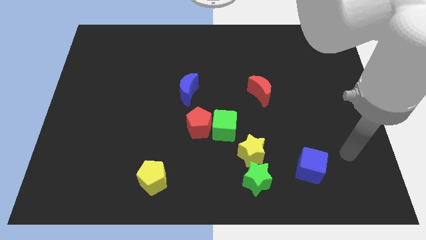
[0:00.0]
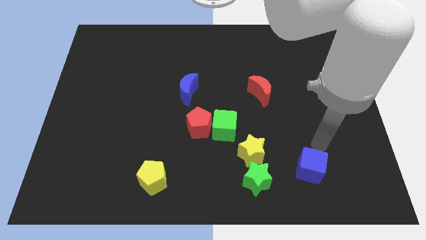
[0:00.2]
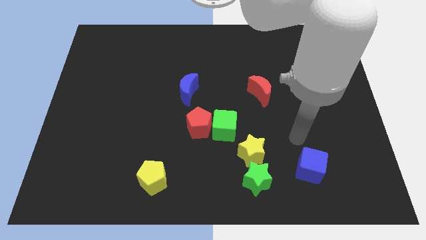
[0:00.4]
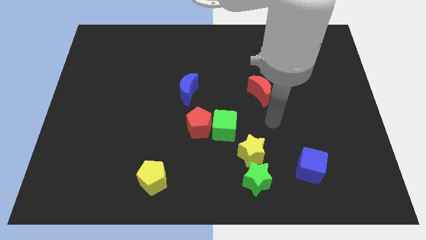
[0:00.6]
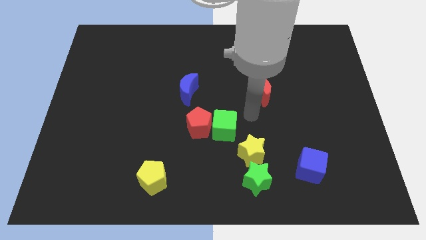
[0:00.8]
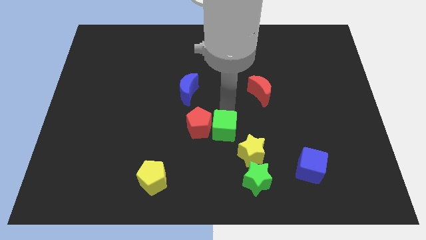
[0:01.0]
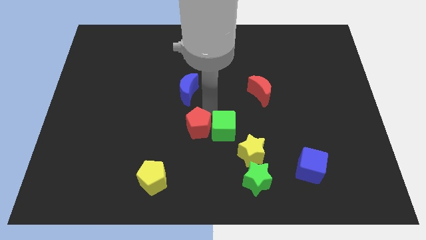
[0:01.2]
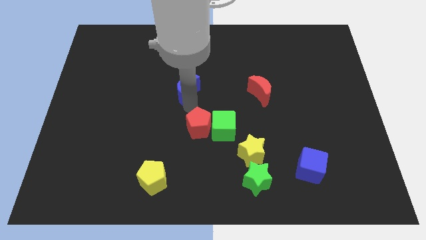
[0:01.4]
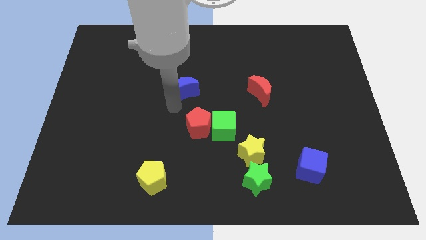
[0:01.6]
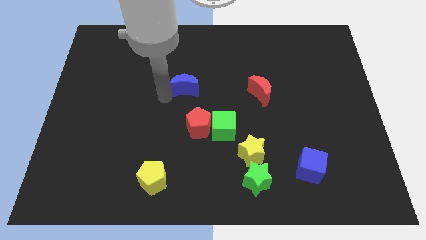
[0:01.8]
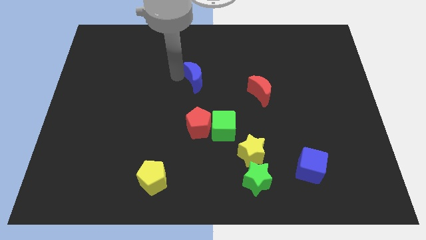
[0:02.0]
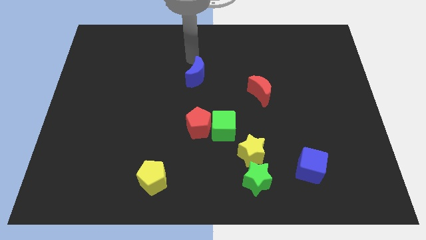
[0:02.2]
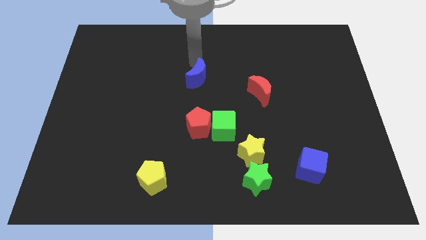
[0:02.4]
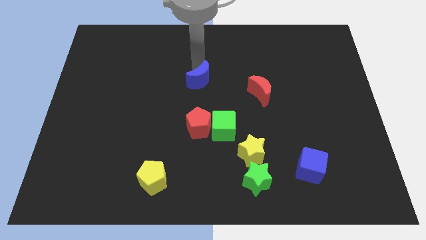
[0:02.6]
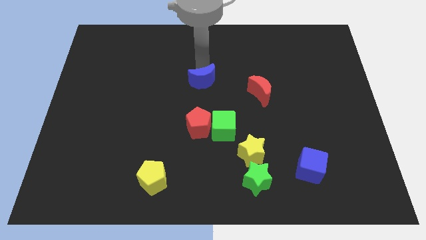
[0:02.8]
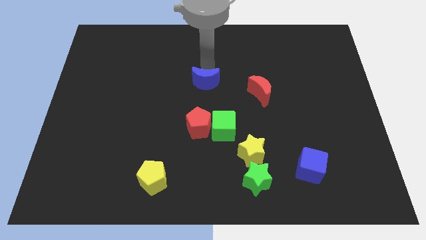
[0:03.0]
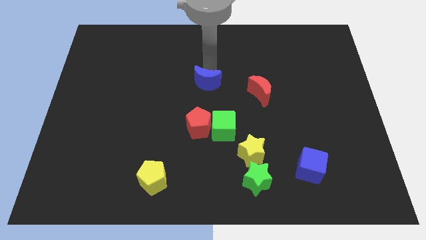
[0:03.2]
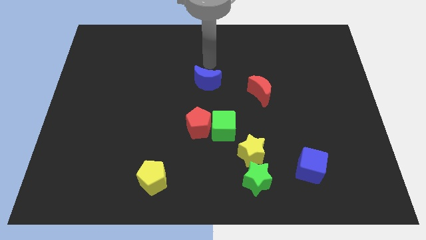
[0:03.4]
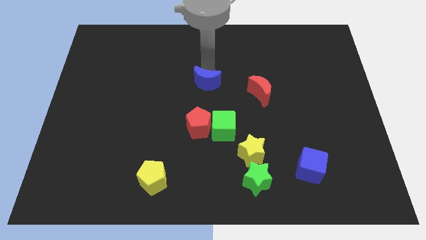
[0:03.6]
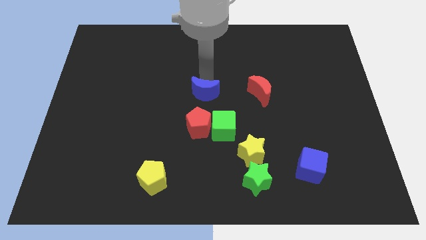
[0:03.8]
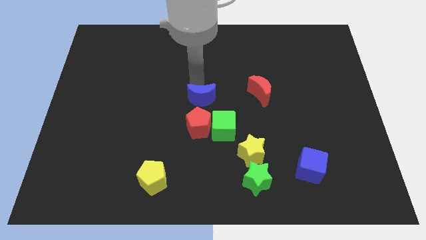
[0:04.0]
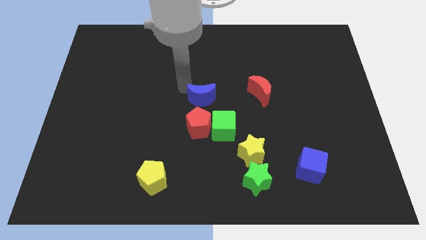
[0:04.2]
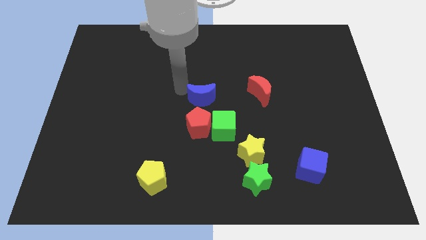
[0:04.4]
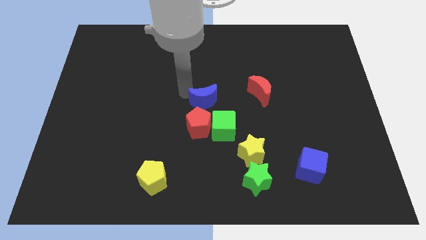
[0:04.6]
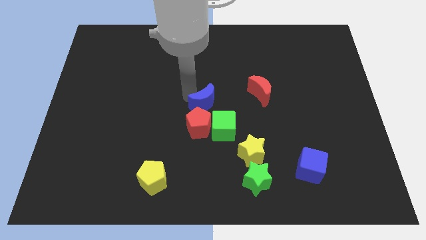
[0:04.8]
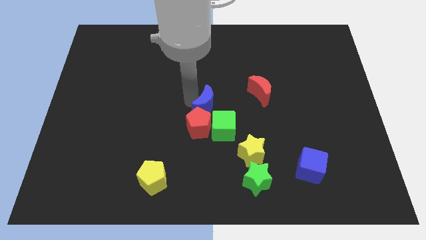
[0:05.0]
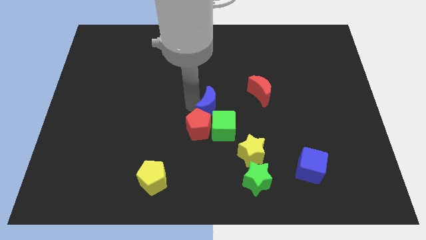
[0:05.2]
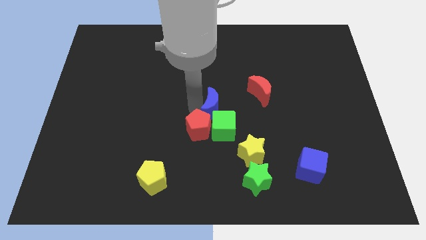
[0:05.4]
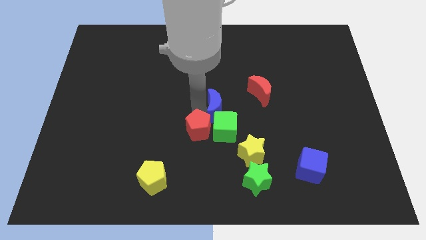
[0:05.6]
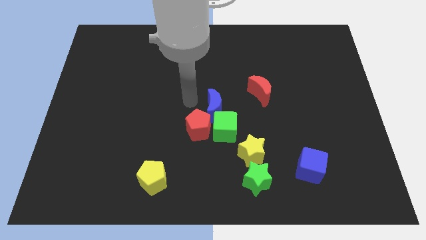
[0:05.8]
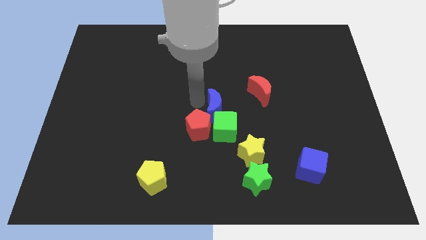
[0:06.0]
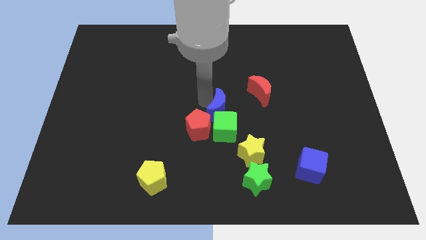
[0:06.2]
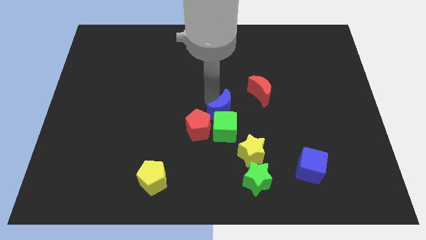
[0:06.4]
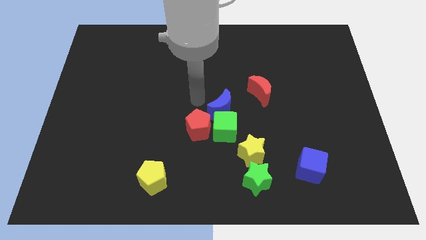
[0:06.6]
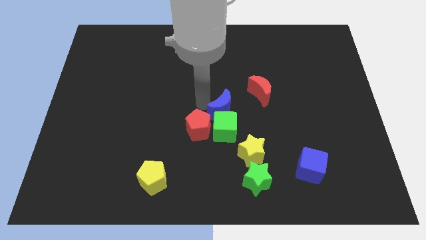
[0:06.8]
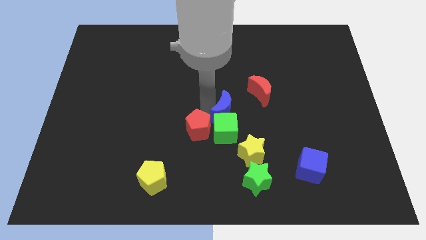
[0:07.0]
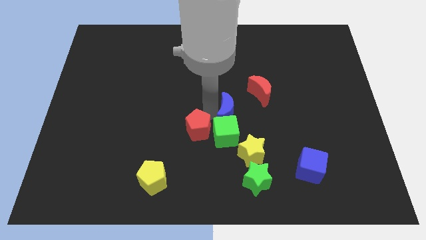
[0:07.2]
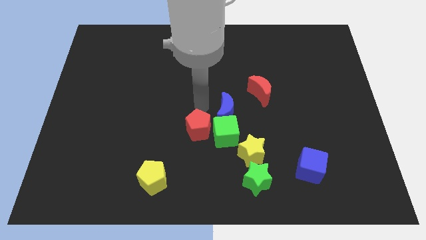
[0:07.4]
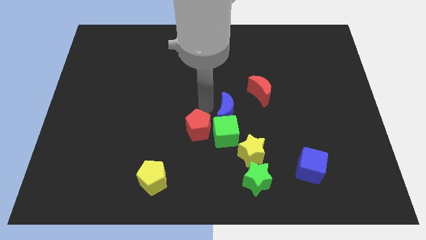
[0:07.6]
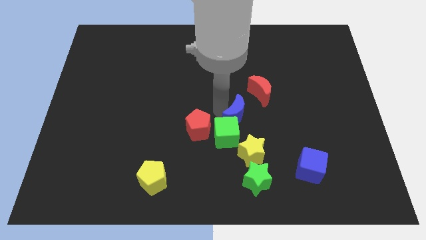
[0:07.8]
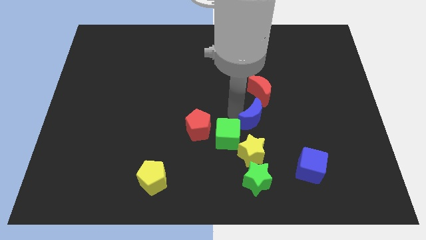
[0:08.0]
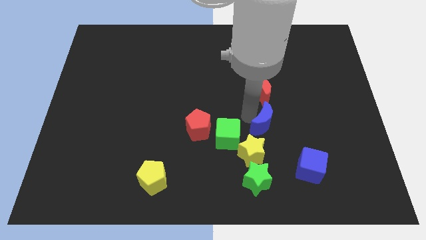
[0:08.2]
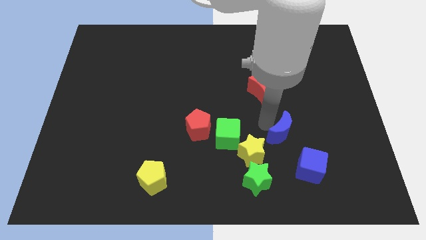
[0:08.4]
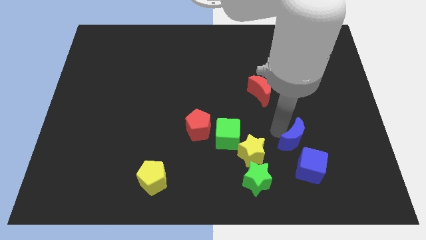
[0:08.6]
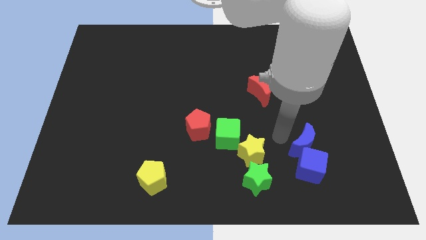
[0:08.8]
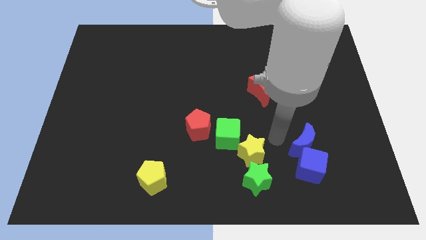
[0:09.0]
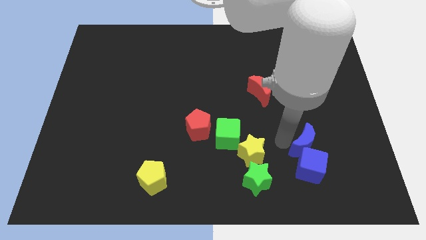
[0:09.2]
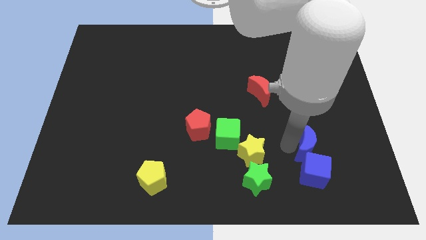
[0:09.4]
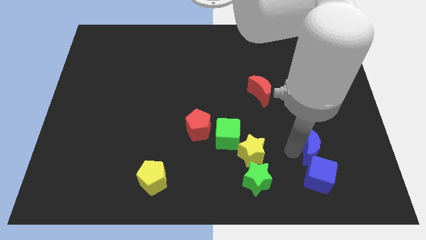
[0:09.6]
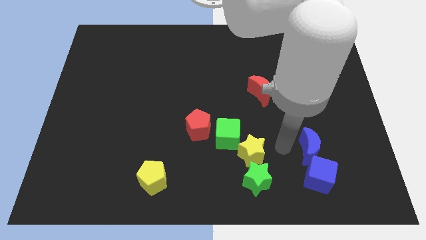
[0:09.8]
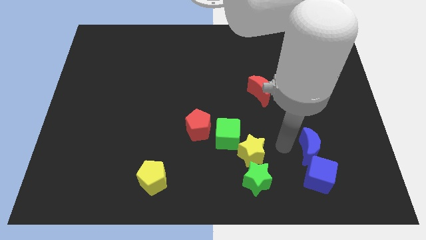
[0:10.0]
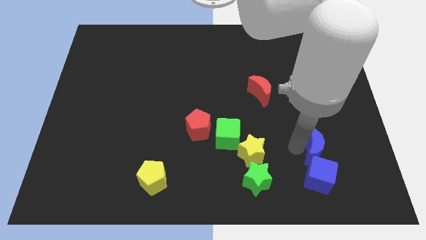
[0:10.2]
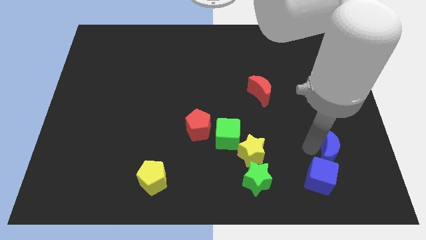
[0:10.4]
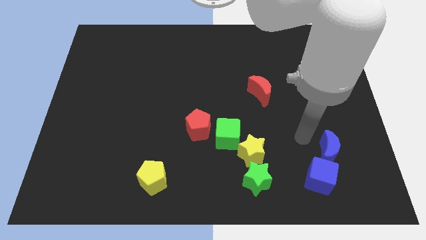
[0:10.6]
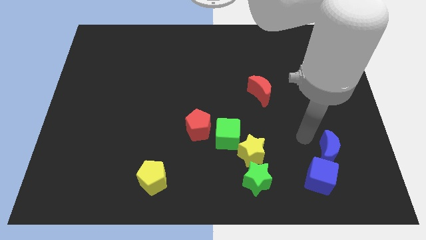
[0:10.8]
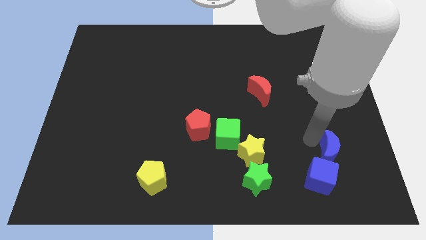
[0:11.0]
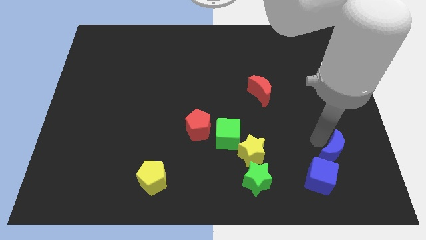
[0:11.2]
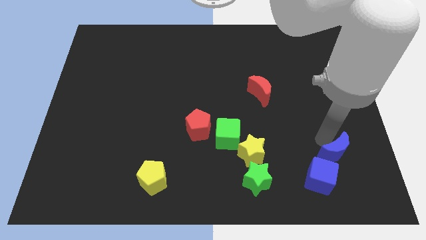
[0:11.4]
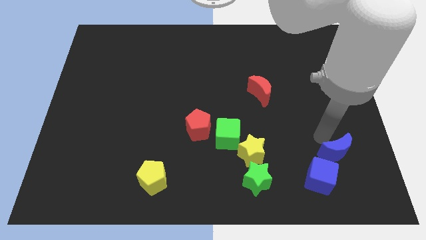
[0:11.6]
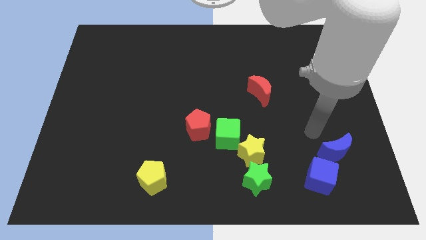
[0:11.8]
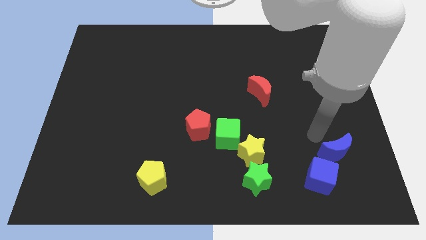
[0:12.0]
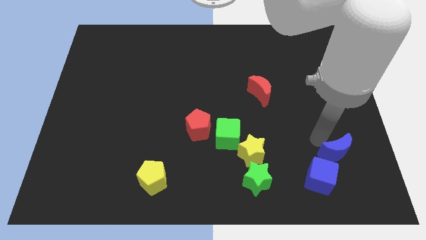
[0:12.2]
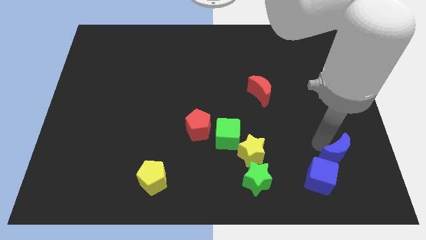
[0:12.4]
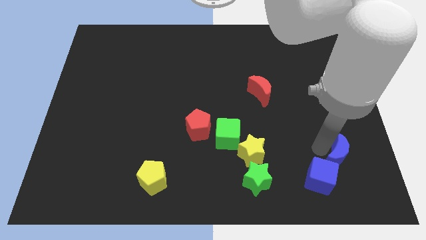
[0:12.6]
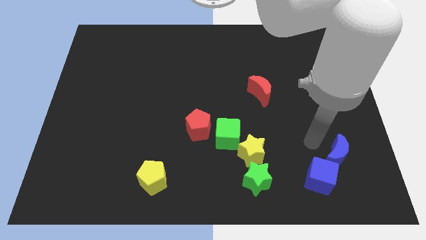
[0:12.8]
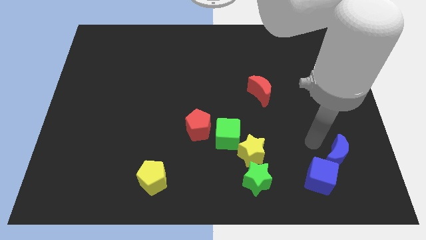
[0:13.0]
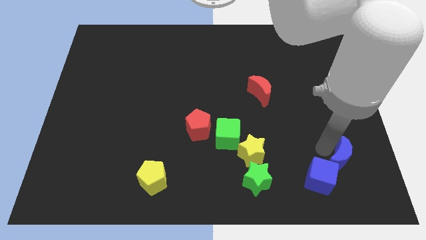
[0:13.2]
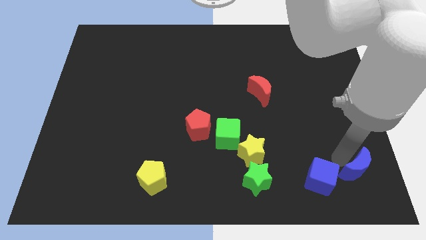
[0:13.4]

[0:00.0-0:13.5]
push the blue moon to the lower right corner
